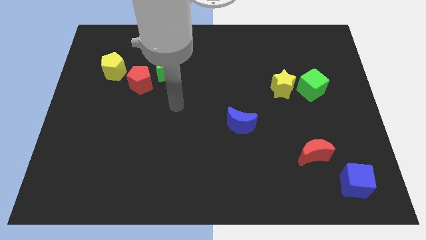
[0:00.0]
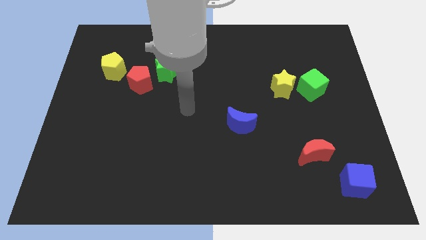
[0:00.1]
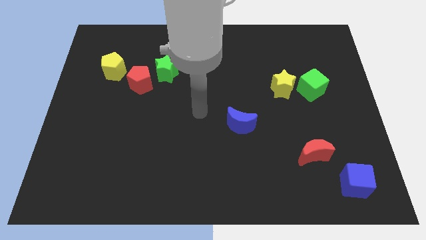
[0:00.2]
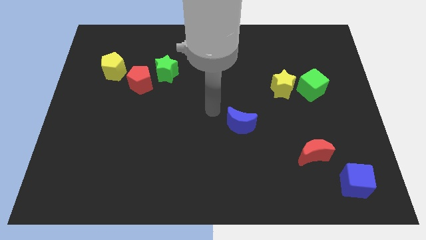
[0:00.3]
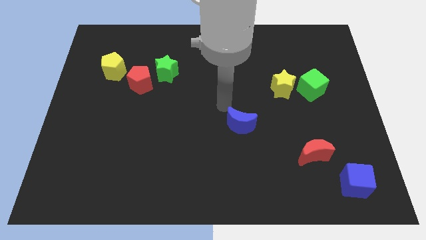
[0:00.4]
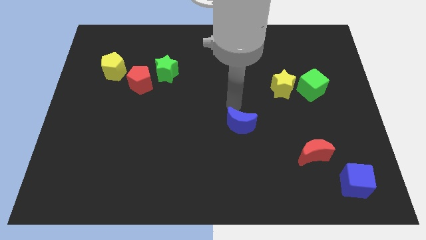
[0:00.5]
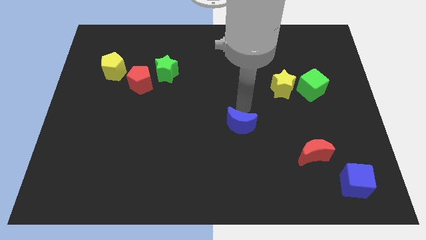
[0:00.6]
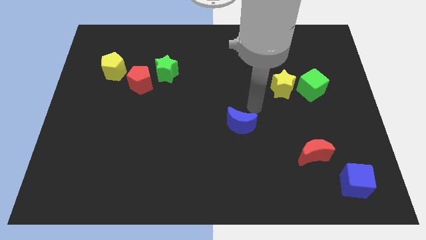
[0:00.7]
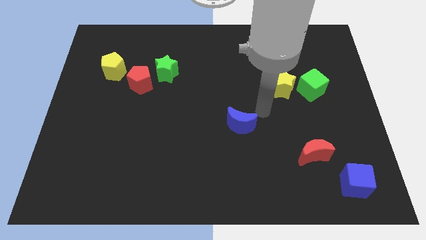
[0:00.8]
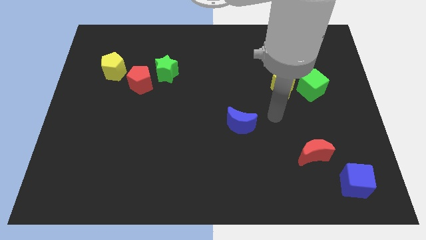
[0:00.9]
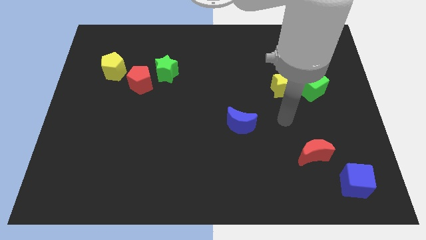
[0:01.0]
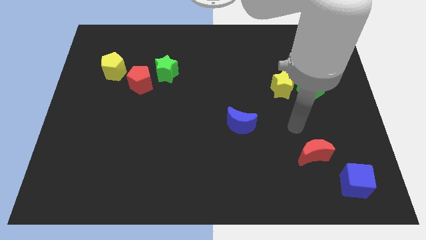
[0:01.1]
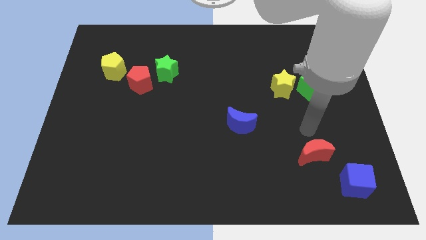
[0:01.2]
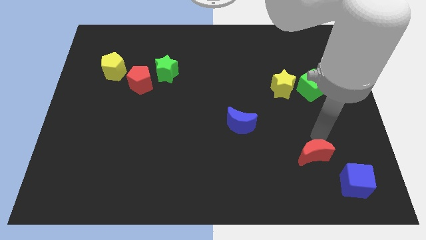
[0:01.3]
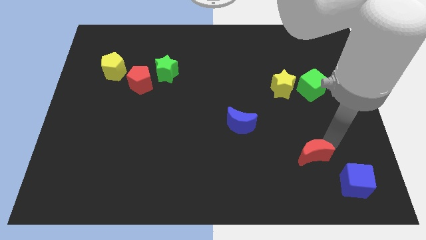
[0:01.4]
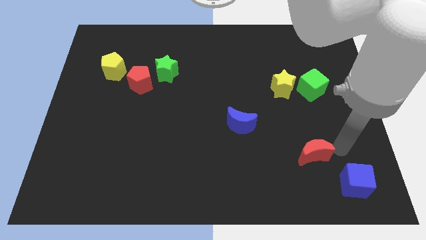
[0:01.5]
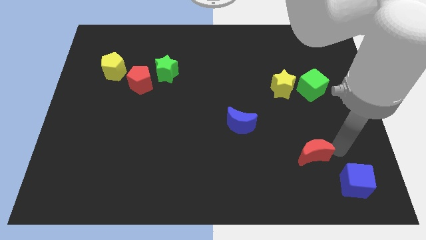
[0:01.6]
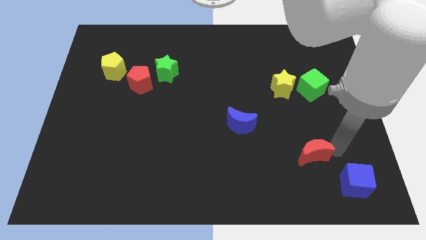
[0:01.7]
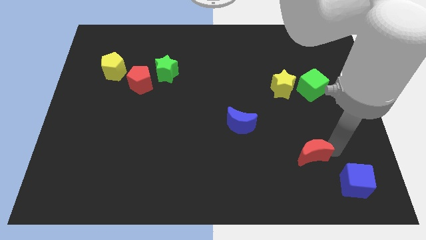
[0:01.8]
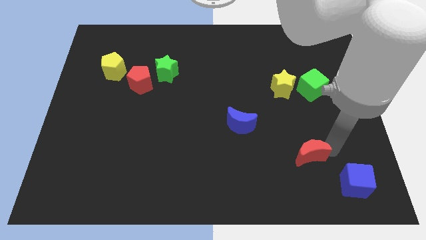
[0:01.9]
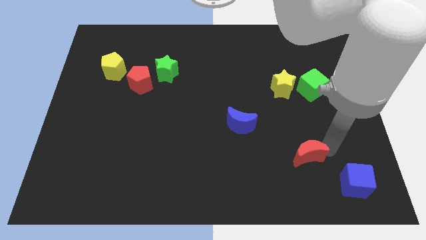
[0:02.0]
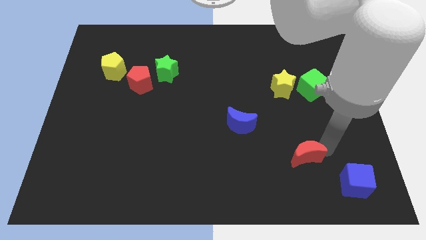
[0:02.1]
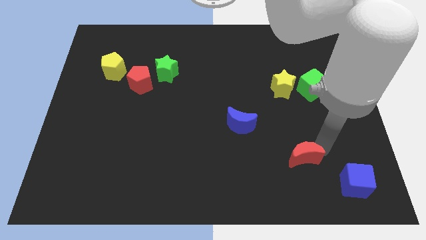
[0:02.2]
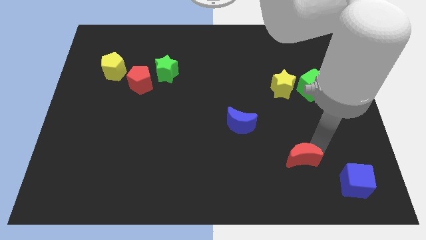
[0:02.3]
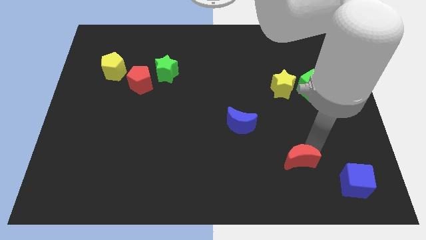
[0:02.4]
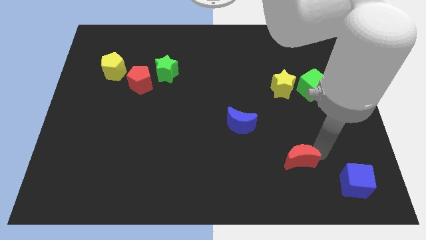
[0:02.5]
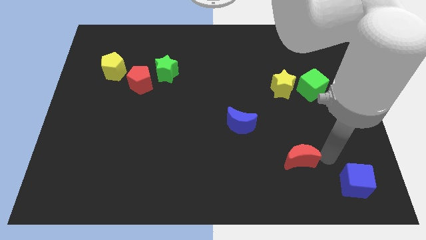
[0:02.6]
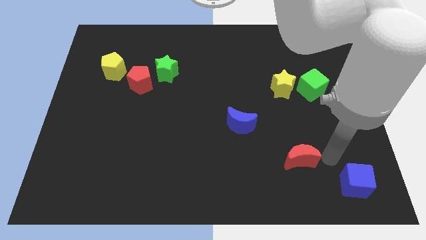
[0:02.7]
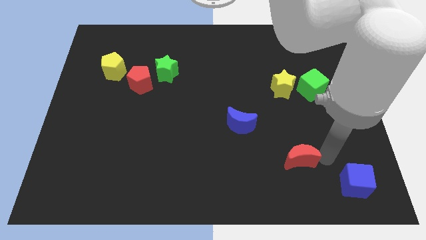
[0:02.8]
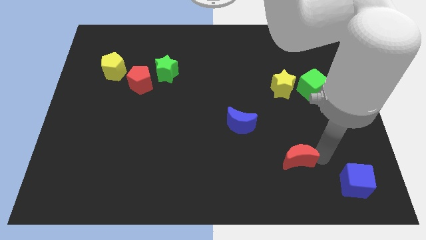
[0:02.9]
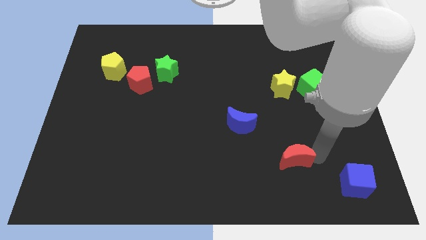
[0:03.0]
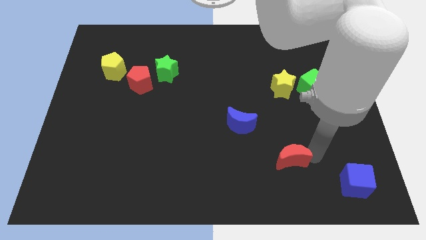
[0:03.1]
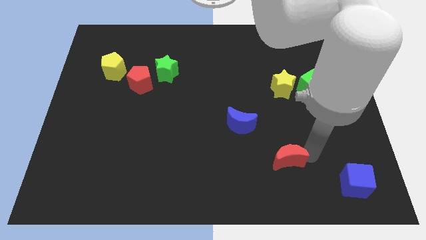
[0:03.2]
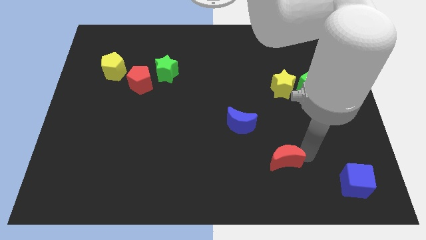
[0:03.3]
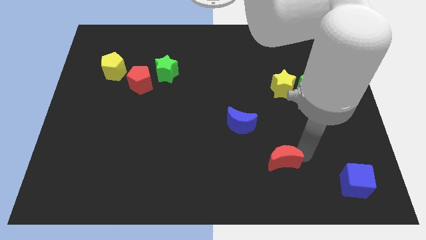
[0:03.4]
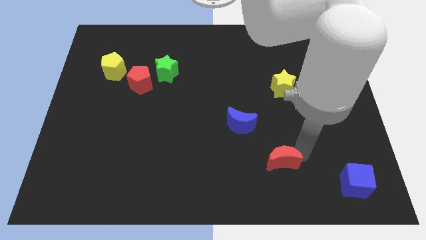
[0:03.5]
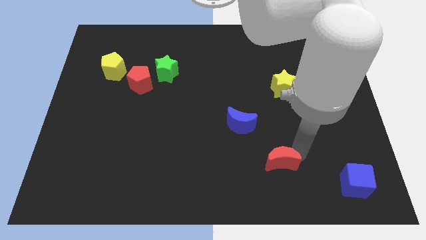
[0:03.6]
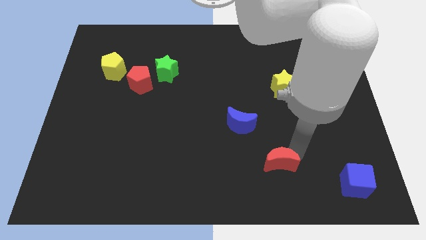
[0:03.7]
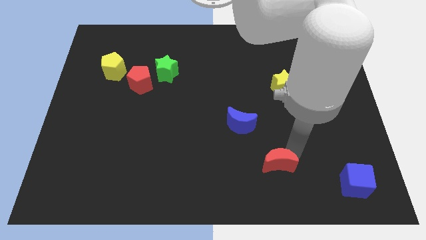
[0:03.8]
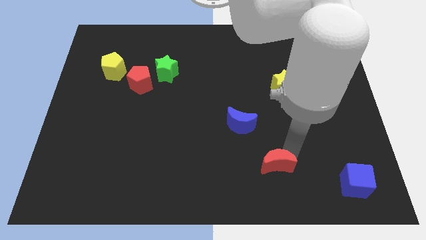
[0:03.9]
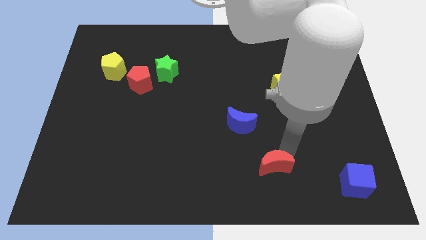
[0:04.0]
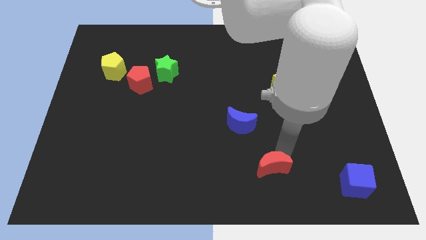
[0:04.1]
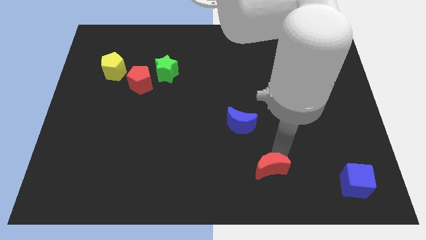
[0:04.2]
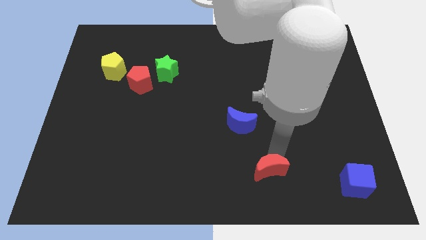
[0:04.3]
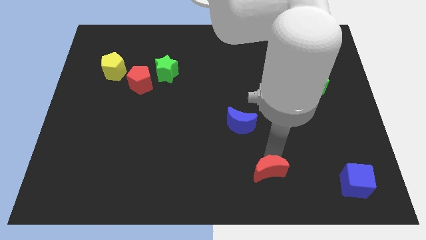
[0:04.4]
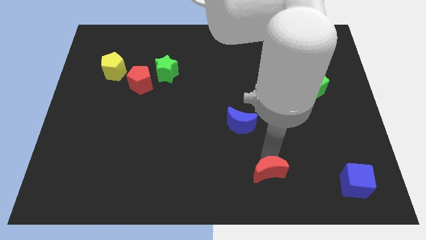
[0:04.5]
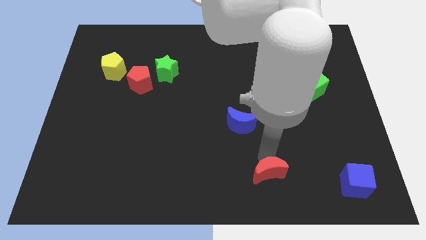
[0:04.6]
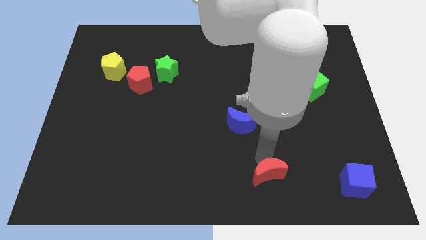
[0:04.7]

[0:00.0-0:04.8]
move the red moon to the bottom of the blue moon

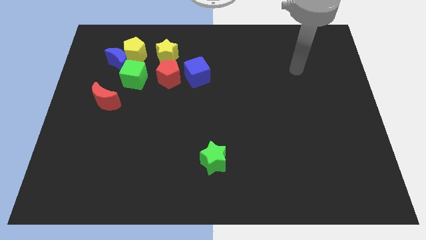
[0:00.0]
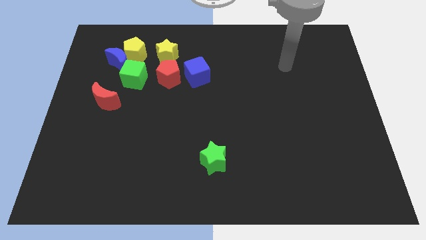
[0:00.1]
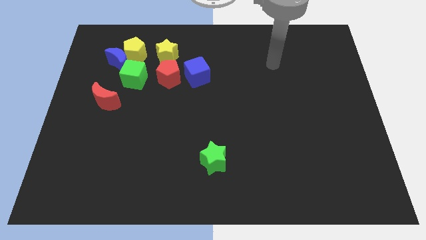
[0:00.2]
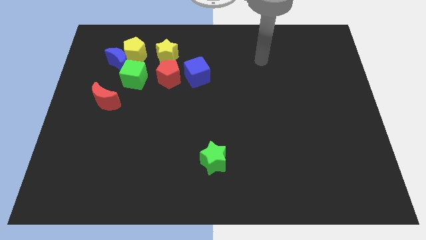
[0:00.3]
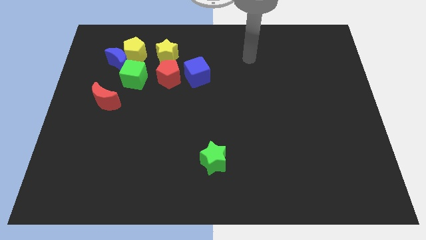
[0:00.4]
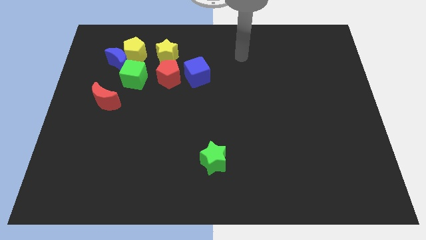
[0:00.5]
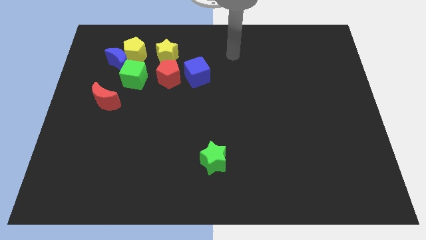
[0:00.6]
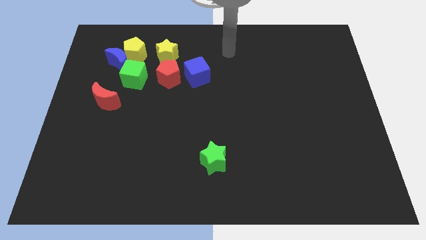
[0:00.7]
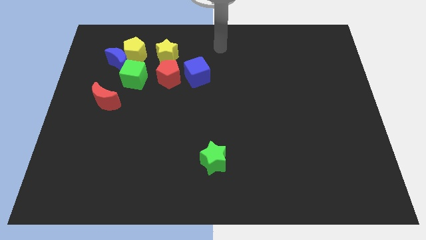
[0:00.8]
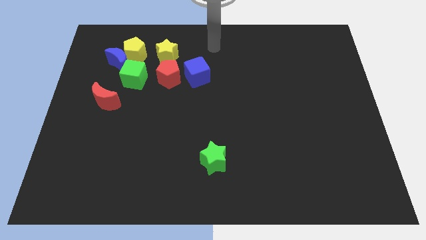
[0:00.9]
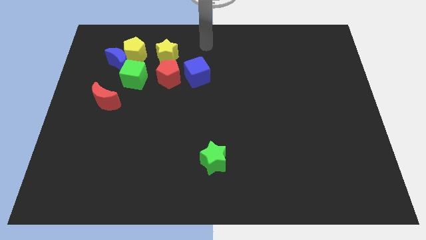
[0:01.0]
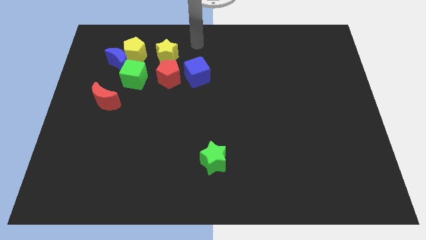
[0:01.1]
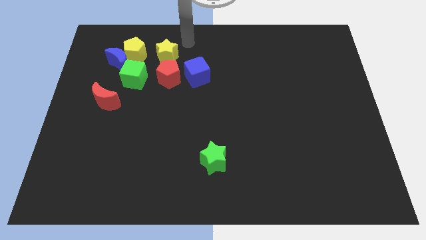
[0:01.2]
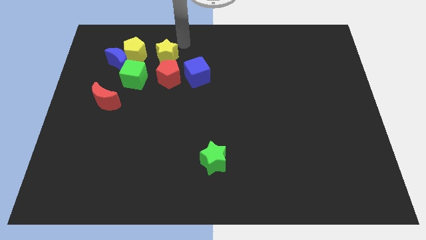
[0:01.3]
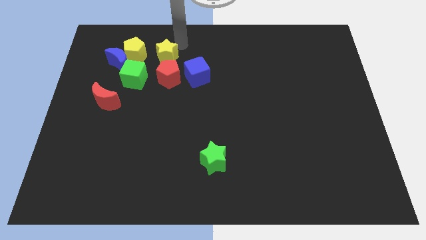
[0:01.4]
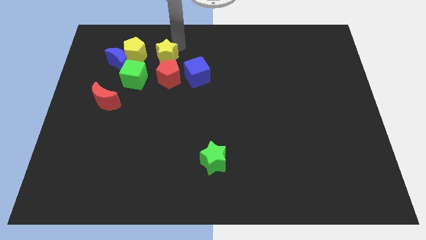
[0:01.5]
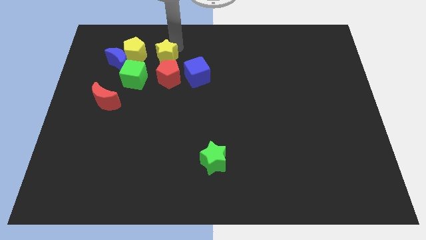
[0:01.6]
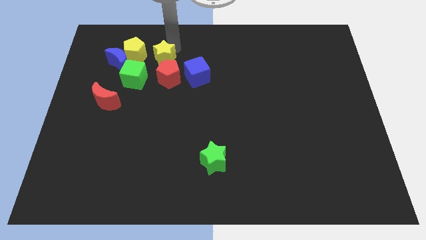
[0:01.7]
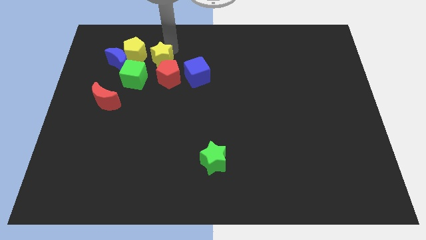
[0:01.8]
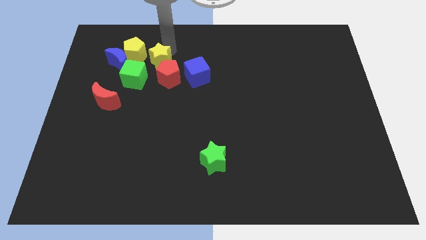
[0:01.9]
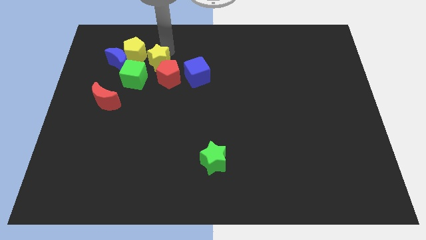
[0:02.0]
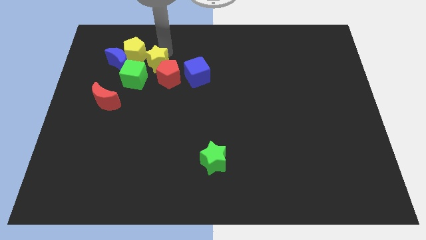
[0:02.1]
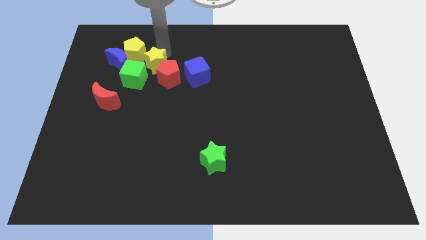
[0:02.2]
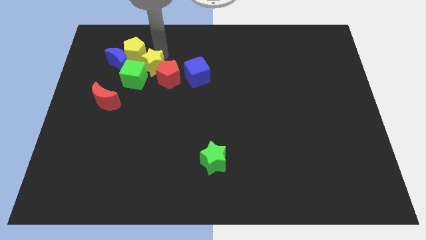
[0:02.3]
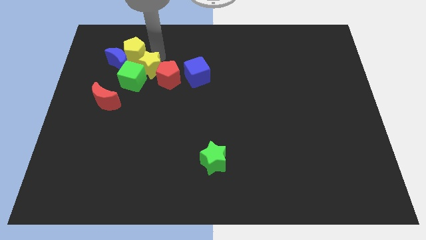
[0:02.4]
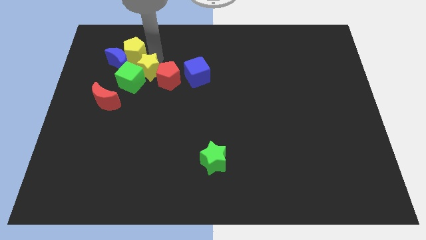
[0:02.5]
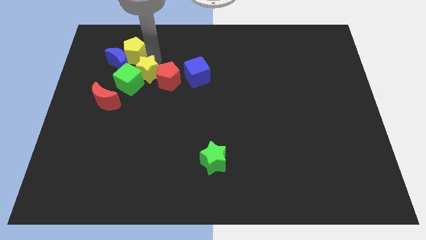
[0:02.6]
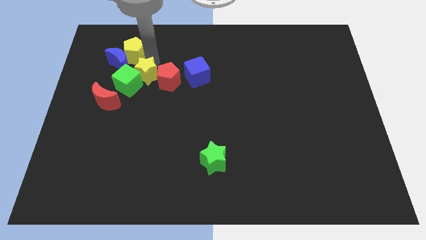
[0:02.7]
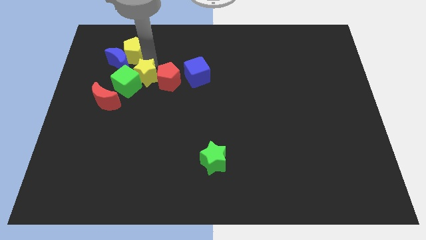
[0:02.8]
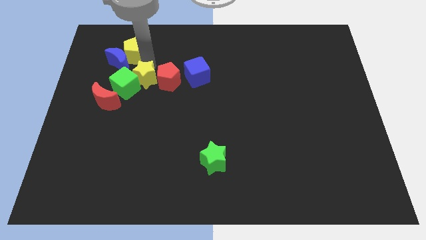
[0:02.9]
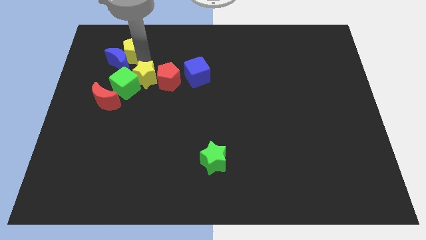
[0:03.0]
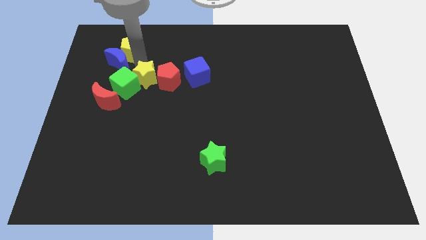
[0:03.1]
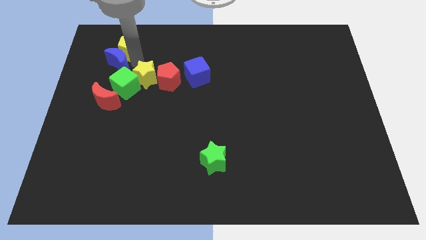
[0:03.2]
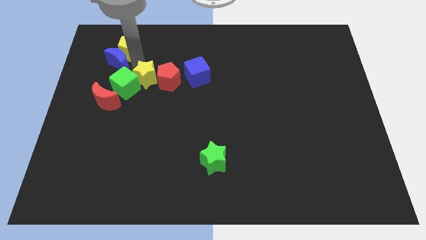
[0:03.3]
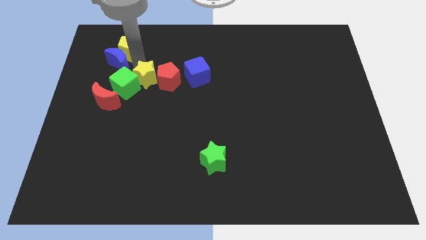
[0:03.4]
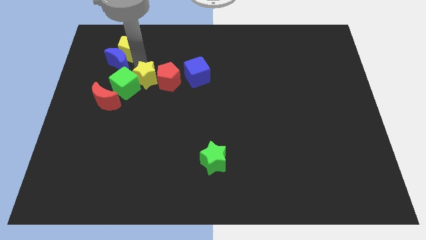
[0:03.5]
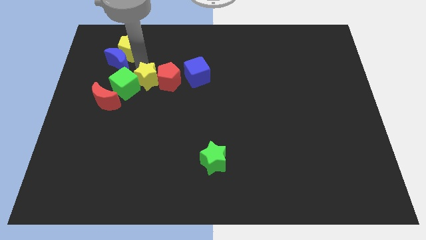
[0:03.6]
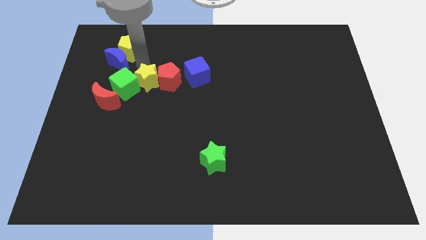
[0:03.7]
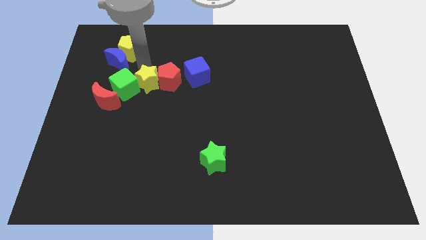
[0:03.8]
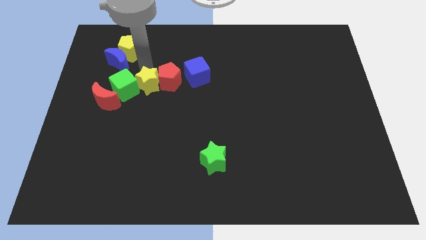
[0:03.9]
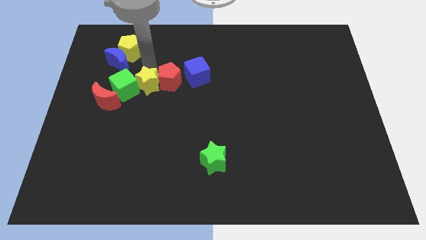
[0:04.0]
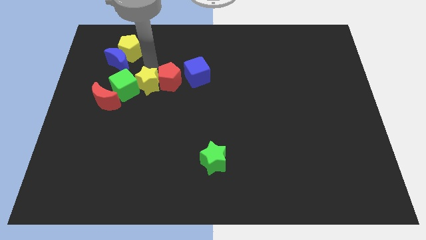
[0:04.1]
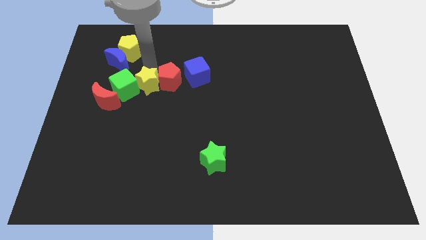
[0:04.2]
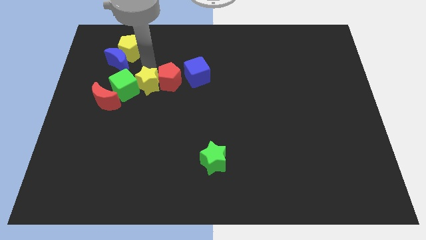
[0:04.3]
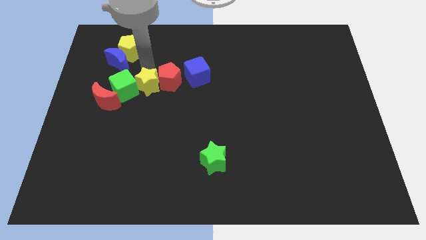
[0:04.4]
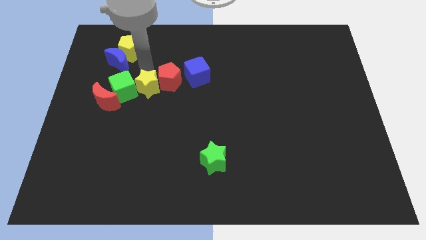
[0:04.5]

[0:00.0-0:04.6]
slide the yellow star right of the red moon
